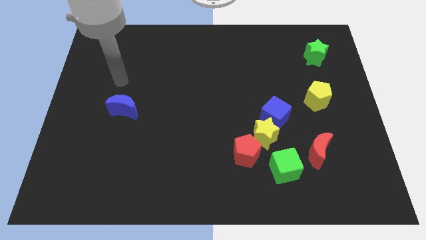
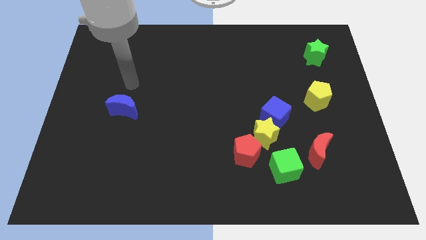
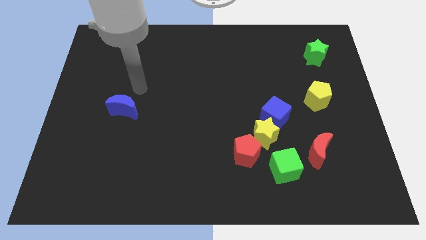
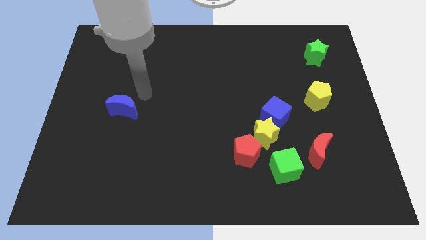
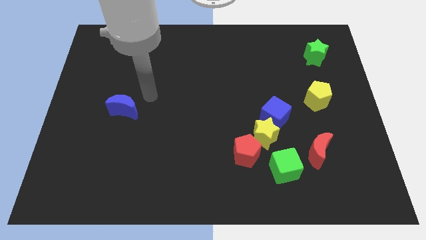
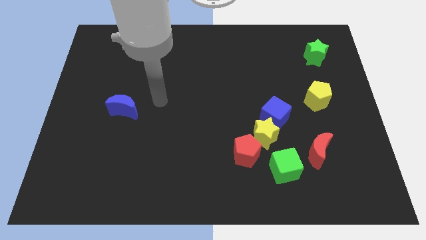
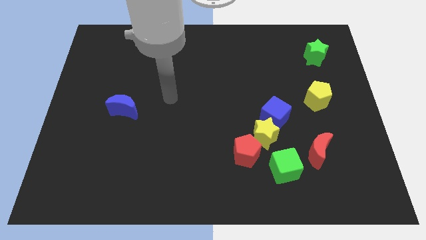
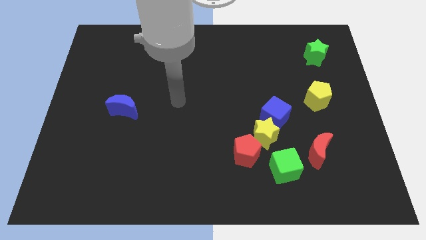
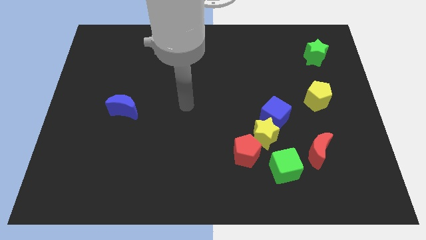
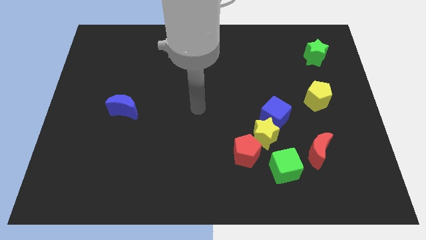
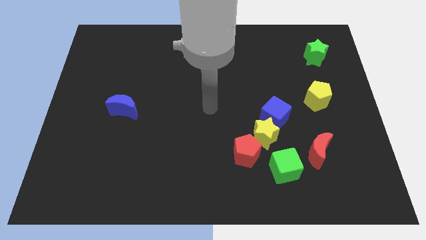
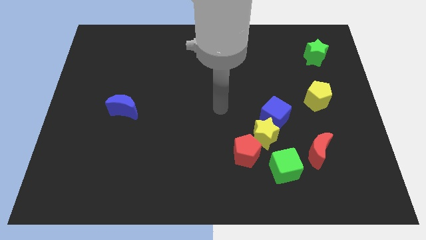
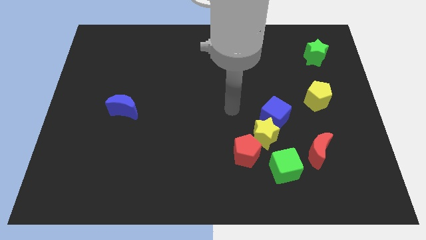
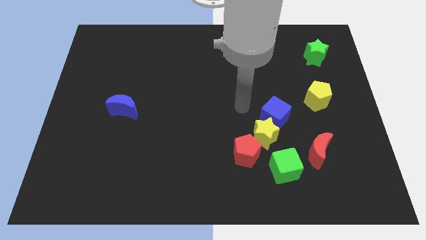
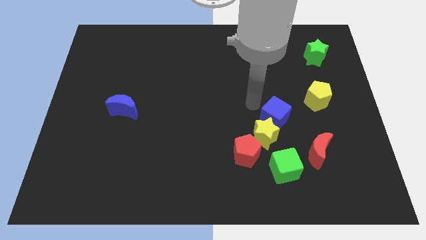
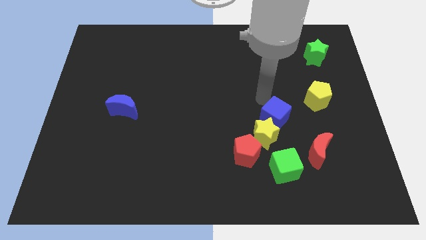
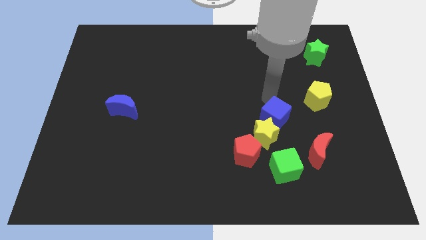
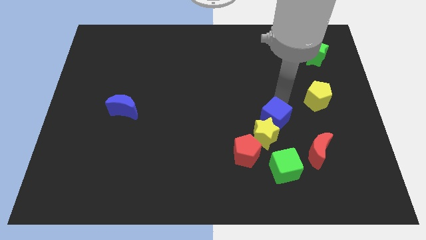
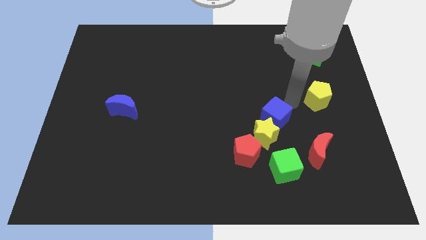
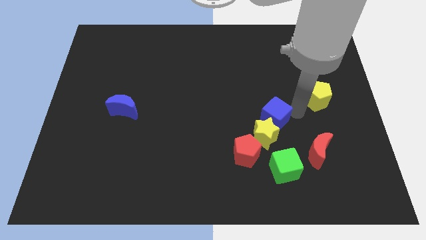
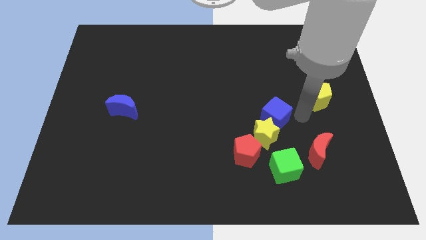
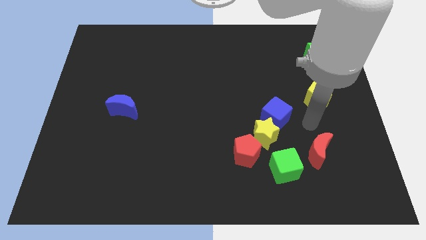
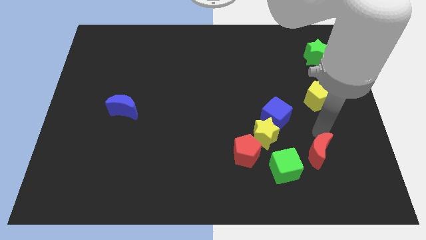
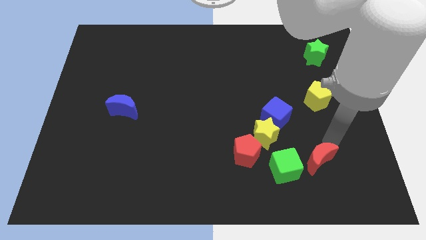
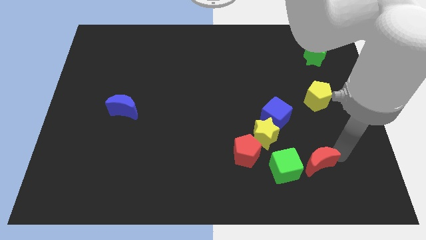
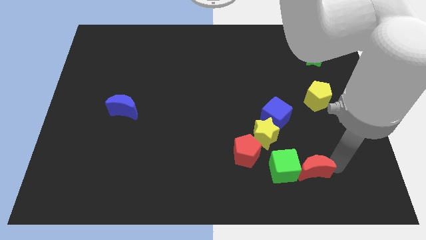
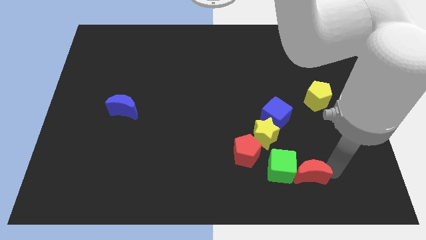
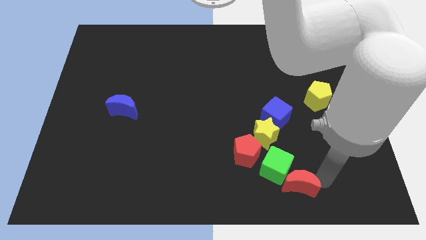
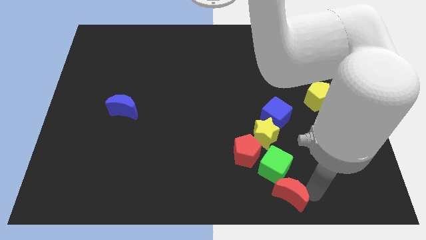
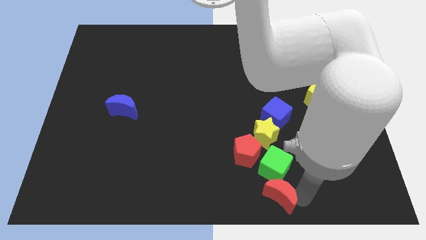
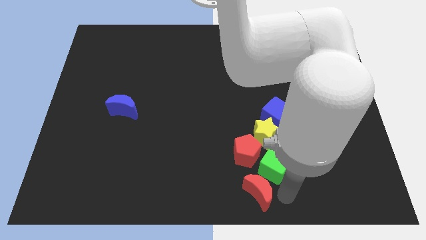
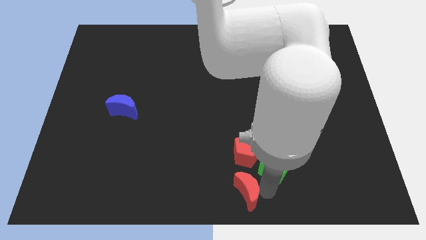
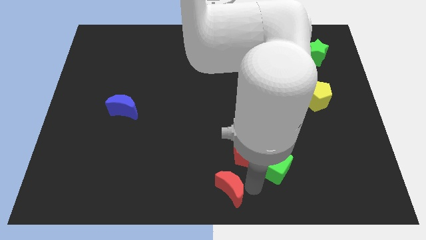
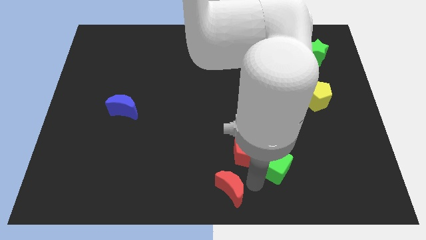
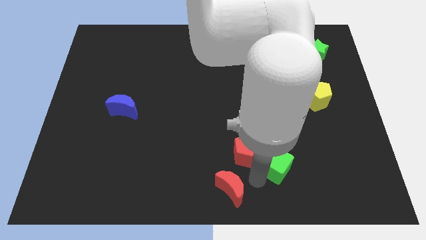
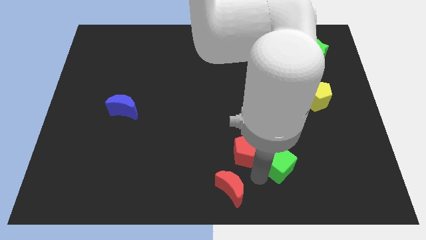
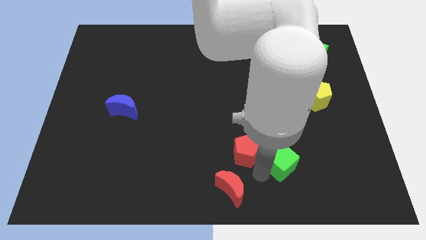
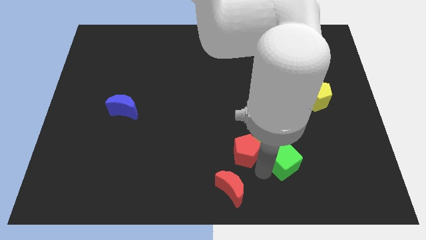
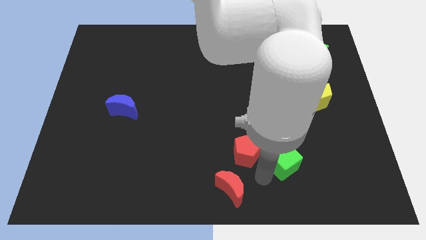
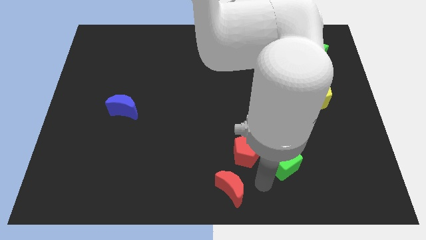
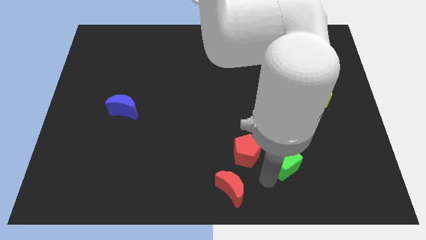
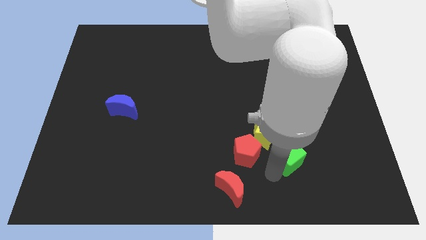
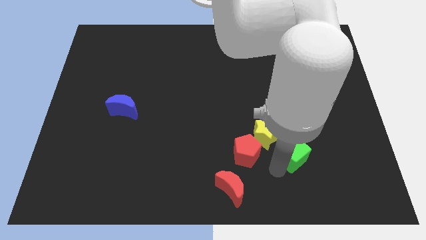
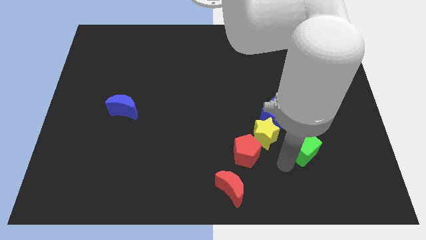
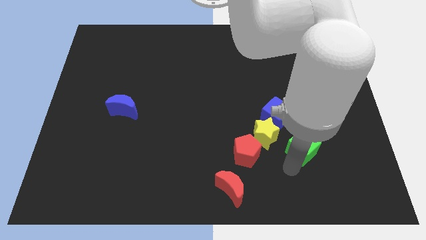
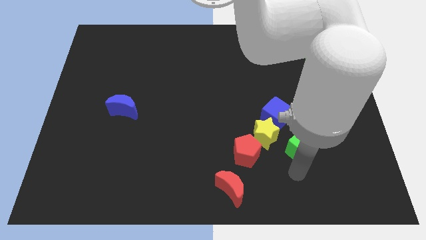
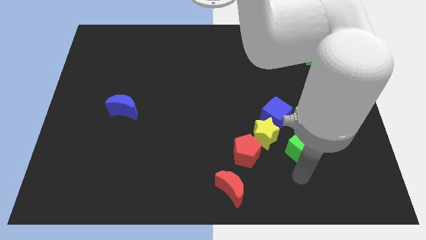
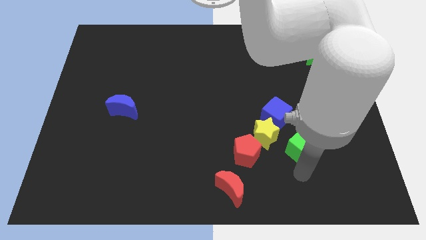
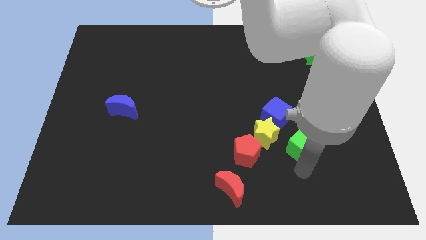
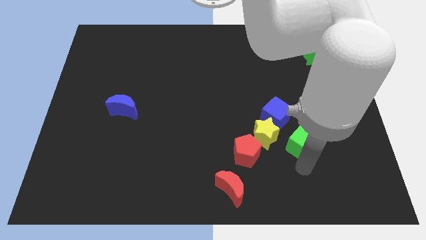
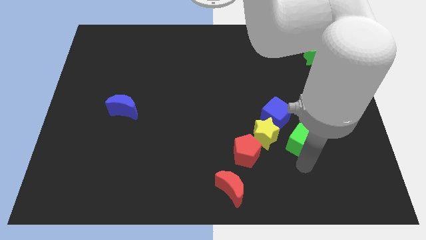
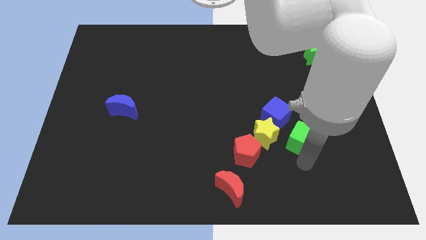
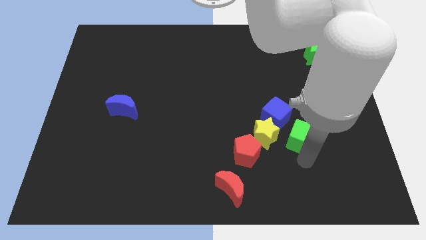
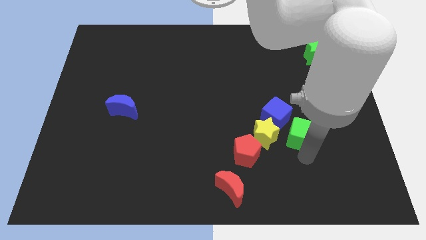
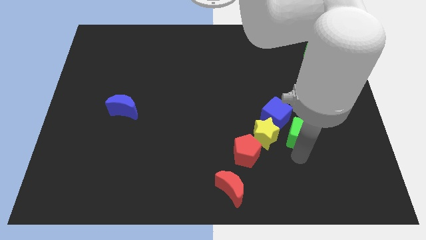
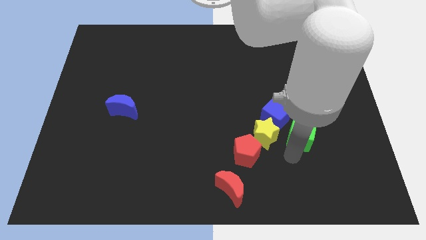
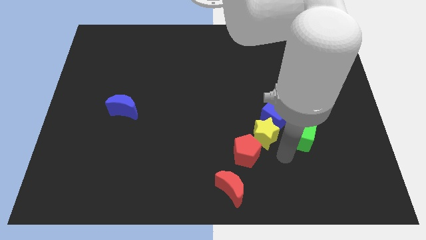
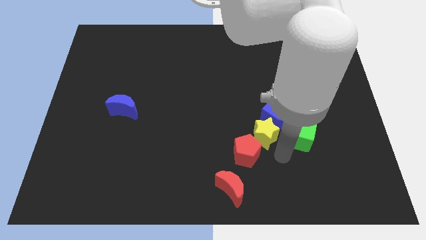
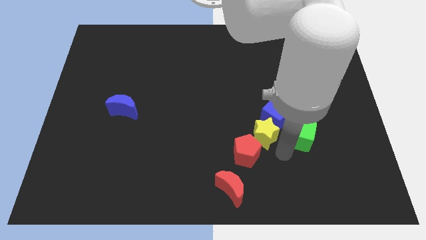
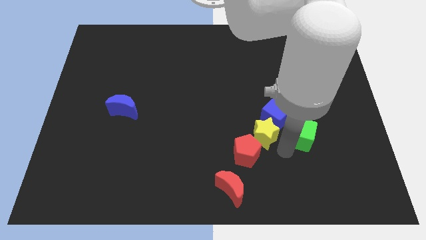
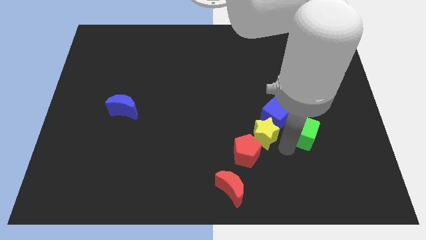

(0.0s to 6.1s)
push the green cube just right of the blue cube

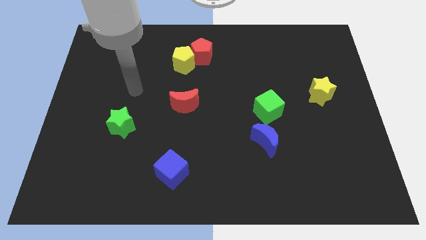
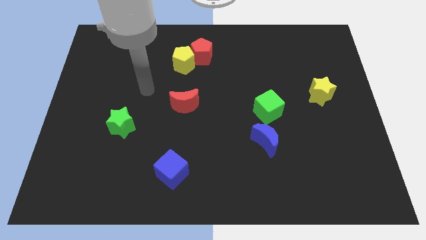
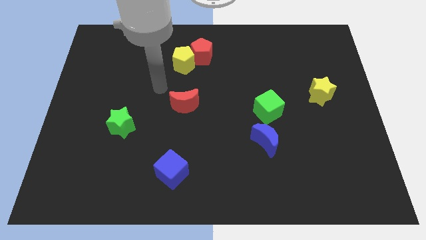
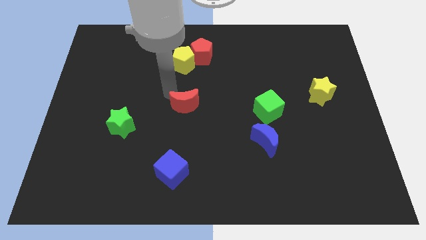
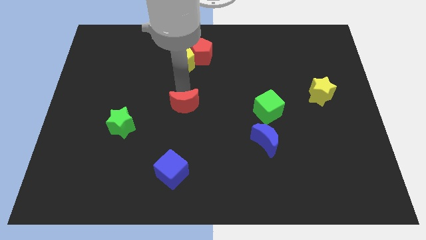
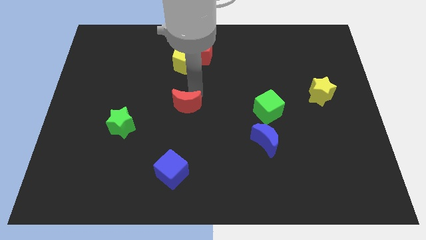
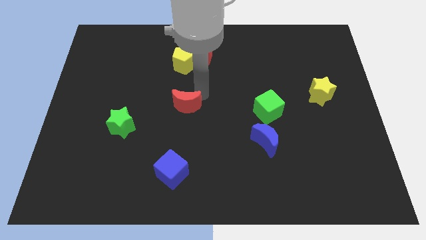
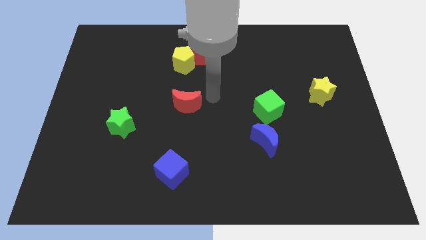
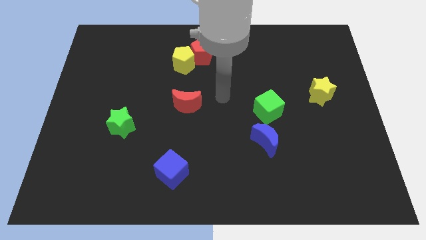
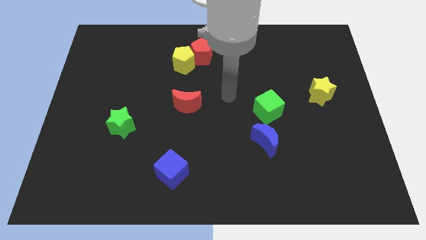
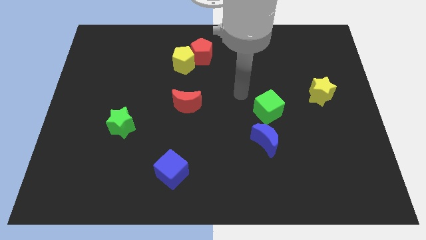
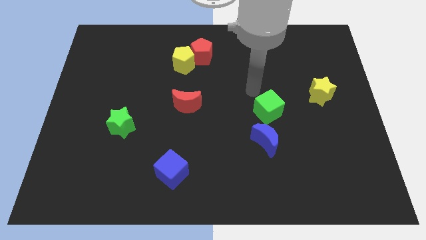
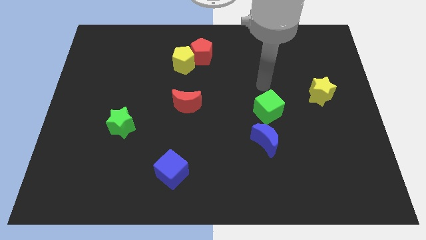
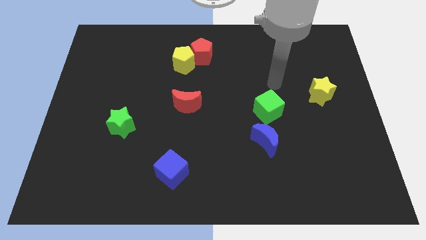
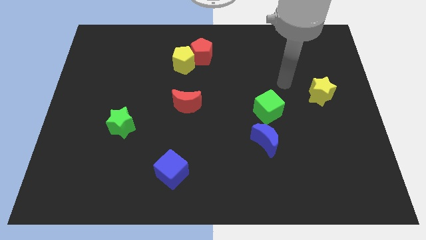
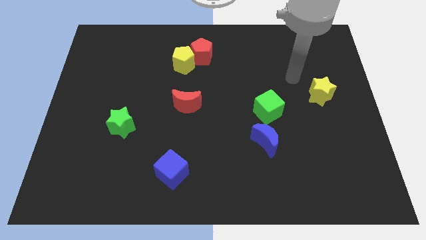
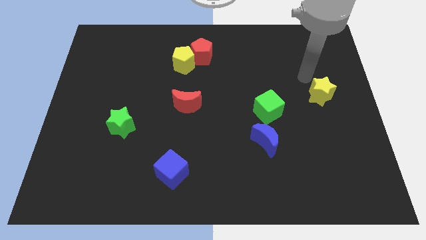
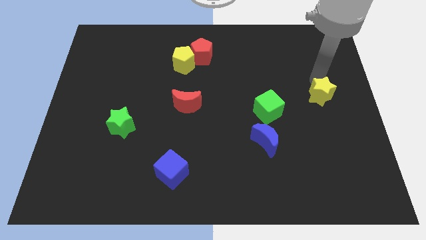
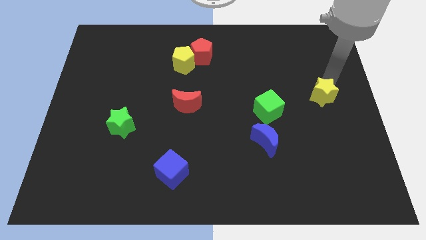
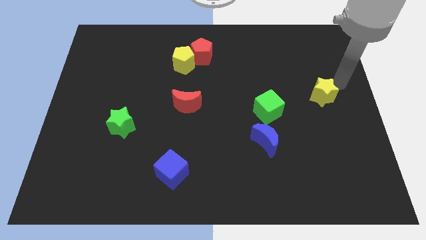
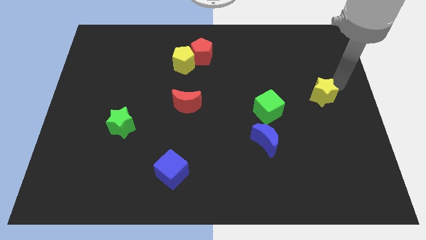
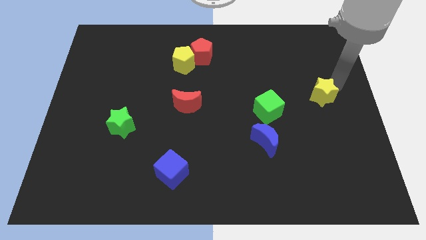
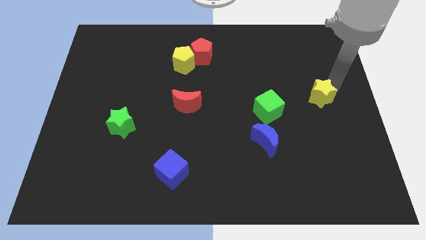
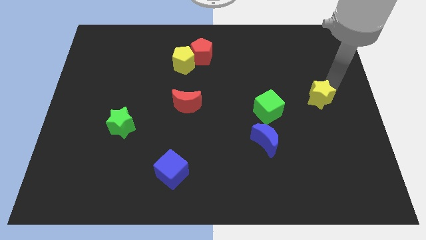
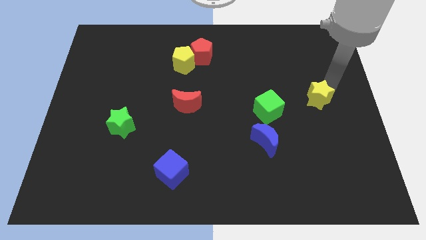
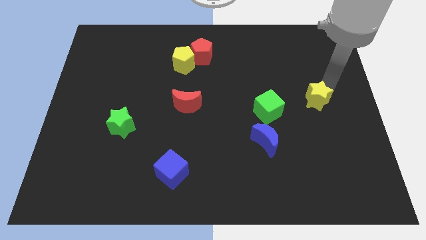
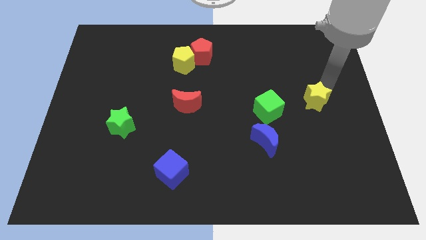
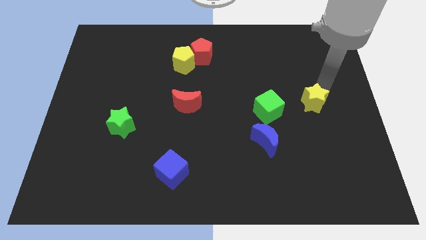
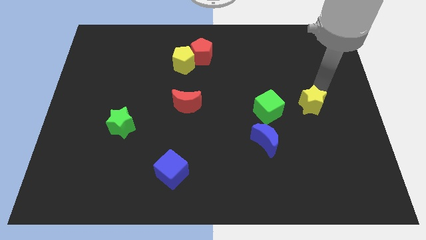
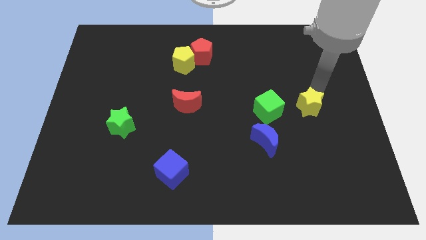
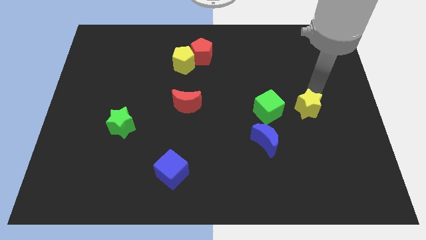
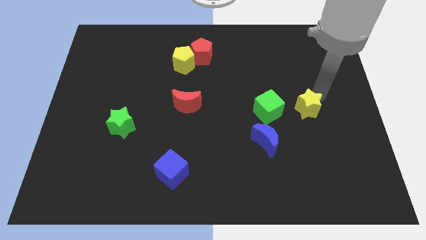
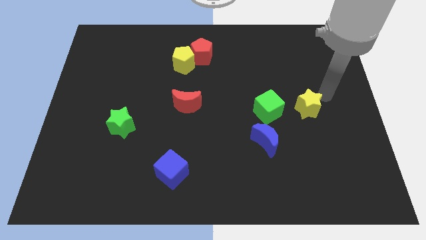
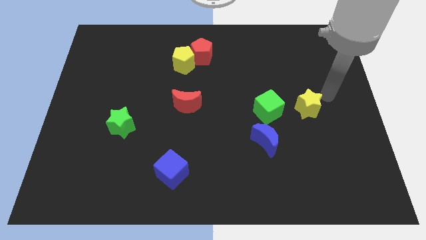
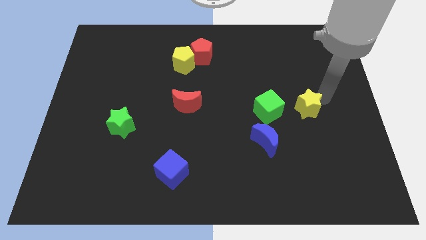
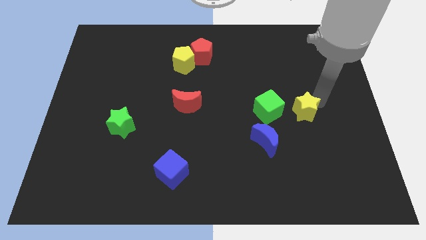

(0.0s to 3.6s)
slide the yellow star to the top right side of the blue moon
